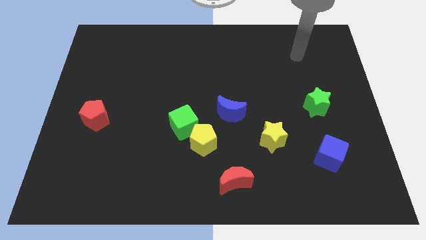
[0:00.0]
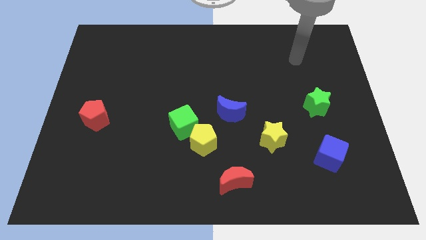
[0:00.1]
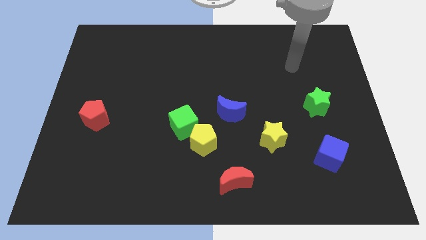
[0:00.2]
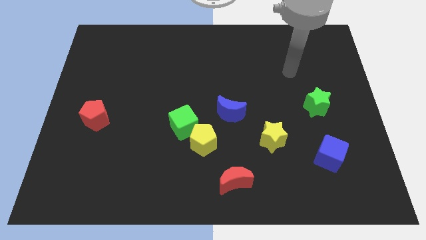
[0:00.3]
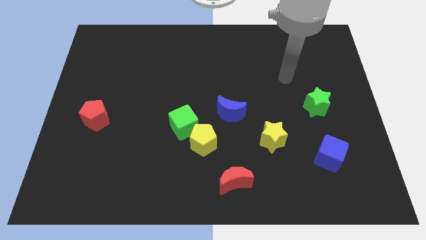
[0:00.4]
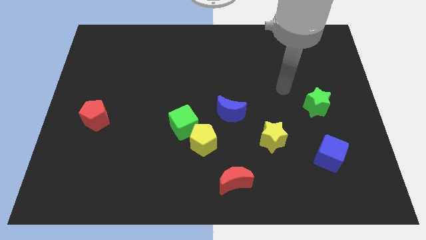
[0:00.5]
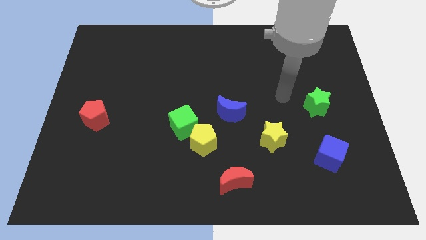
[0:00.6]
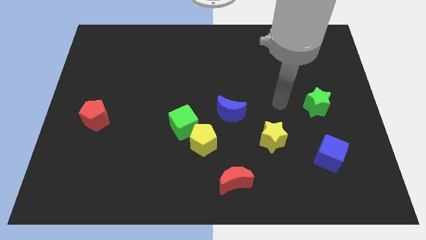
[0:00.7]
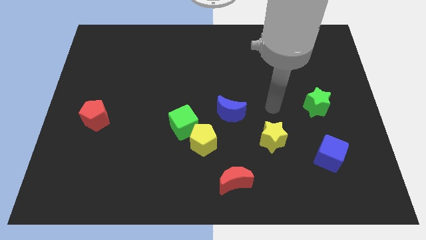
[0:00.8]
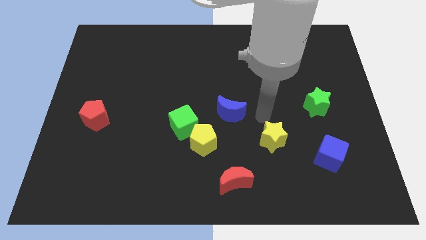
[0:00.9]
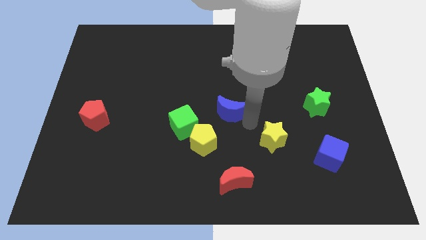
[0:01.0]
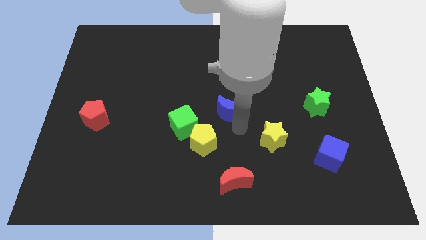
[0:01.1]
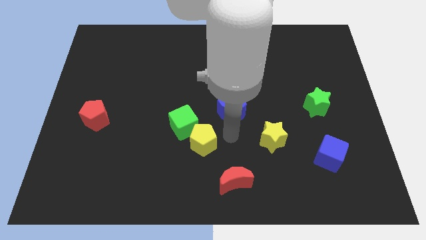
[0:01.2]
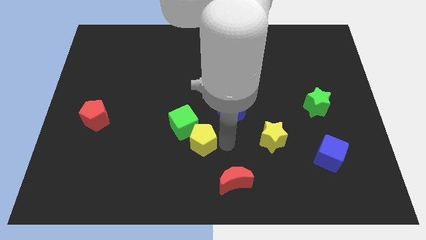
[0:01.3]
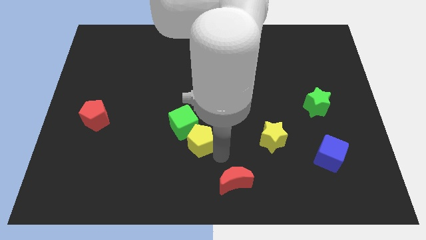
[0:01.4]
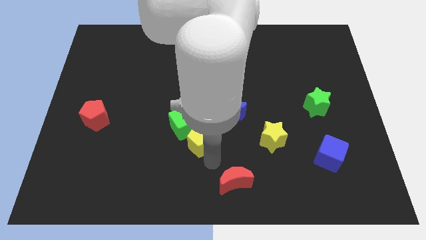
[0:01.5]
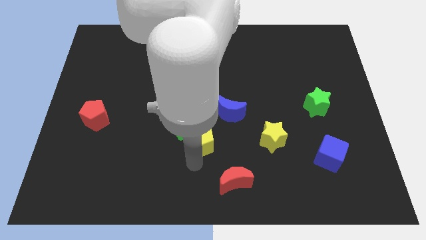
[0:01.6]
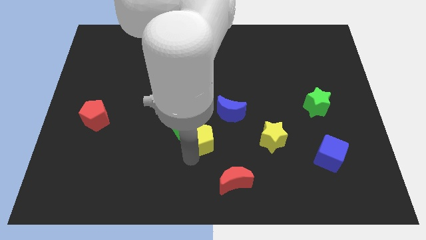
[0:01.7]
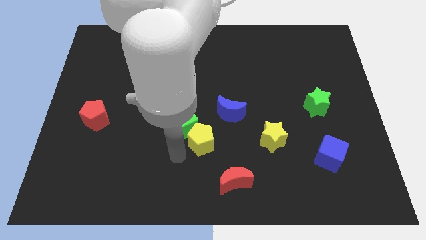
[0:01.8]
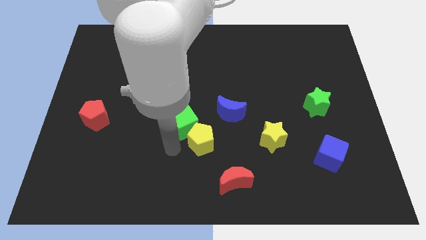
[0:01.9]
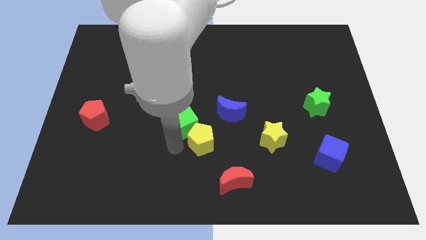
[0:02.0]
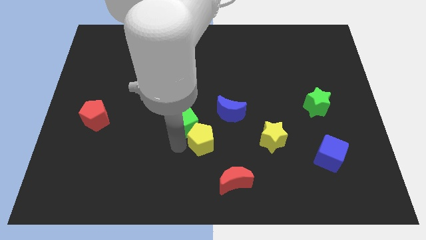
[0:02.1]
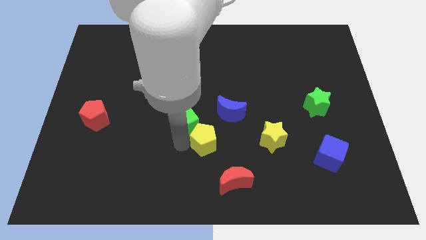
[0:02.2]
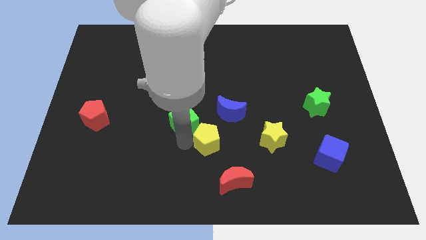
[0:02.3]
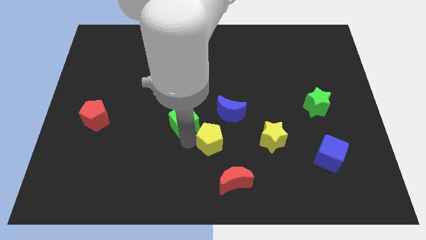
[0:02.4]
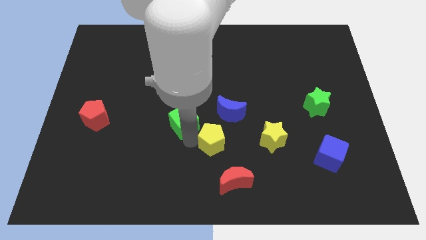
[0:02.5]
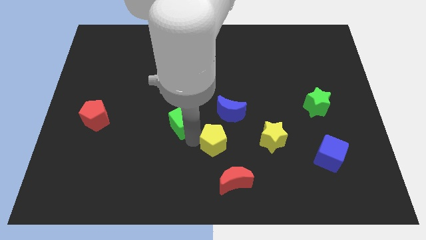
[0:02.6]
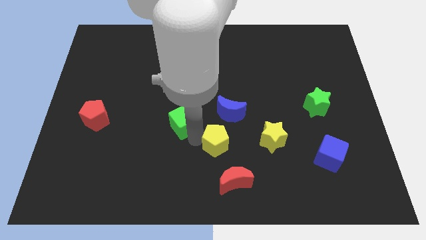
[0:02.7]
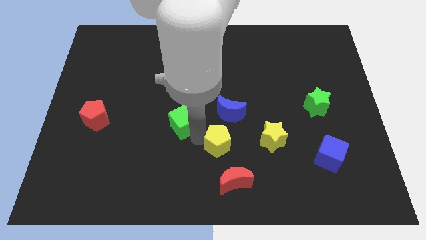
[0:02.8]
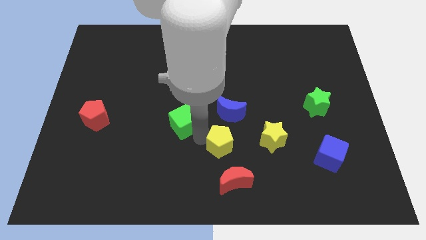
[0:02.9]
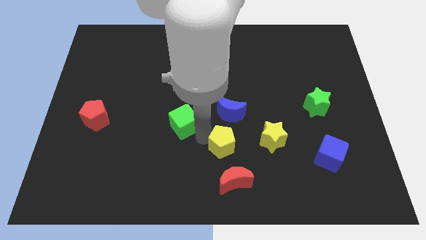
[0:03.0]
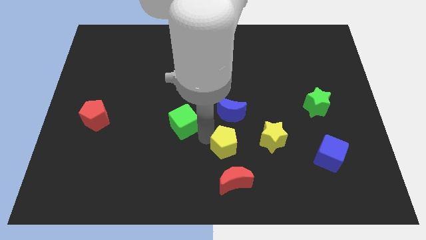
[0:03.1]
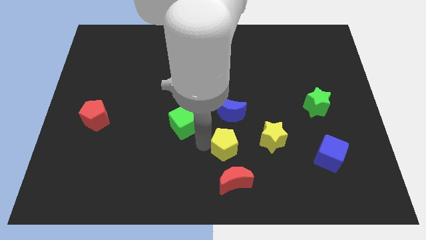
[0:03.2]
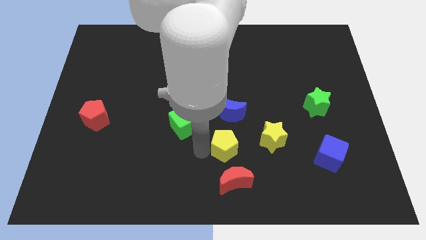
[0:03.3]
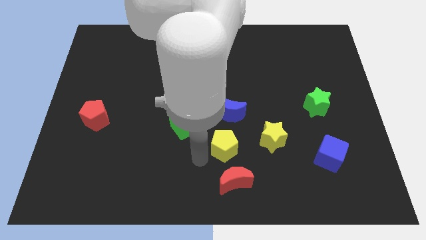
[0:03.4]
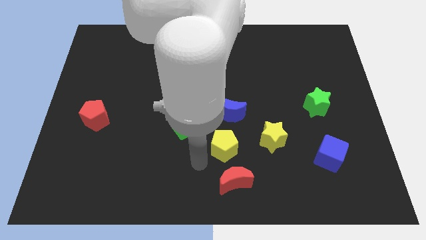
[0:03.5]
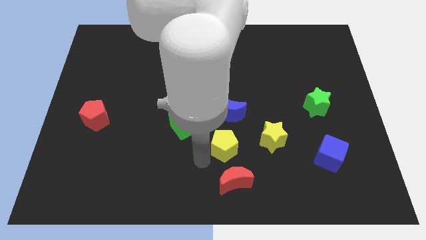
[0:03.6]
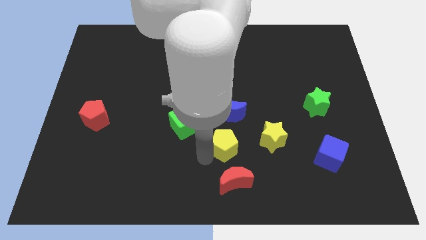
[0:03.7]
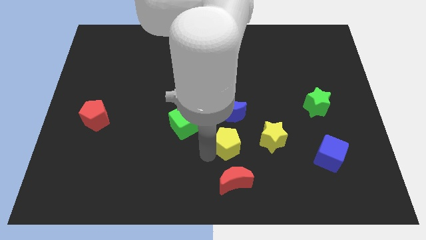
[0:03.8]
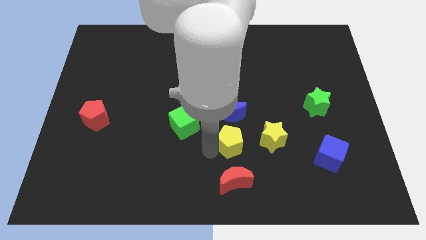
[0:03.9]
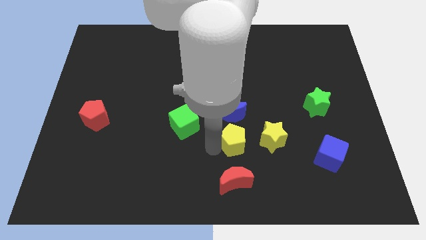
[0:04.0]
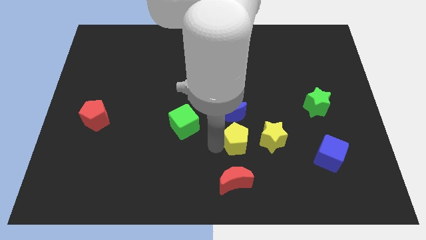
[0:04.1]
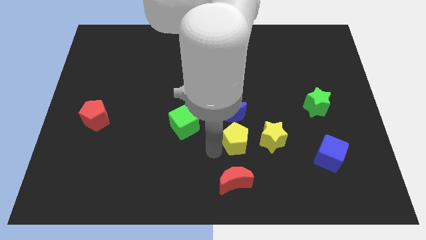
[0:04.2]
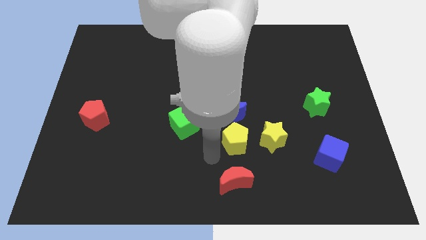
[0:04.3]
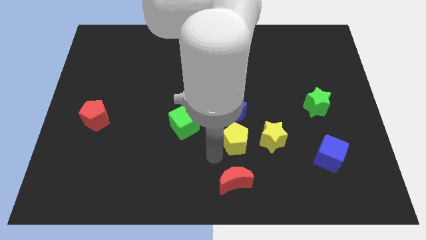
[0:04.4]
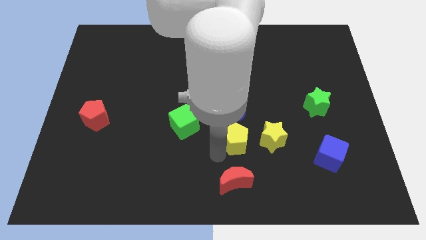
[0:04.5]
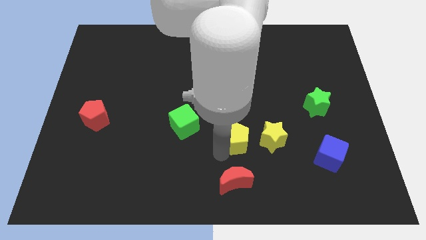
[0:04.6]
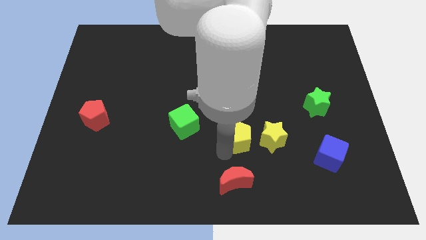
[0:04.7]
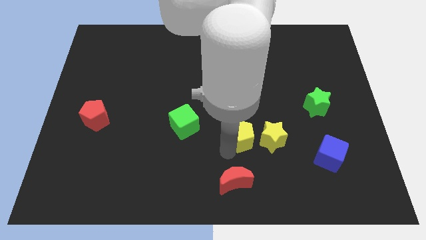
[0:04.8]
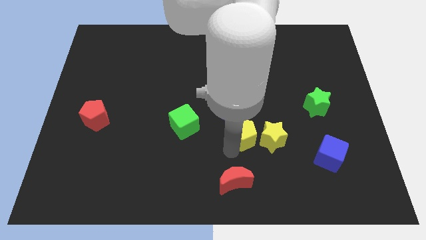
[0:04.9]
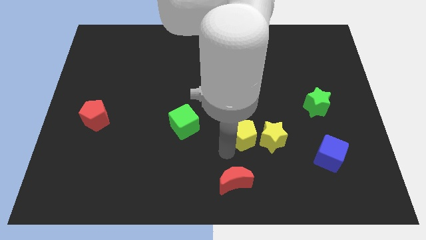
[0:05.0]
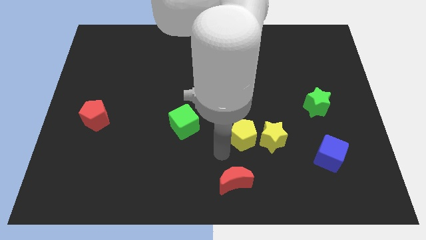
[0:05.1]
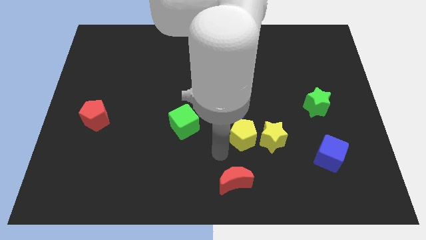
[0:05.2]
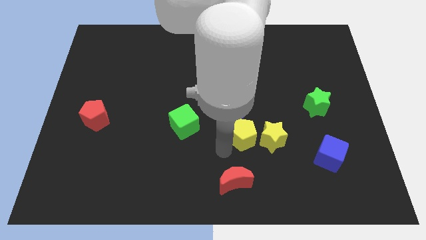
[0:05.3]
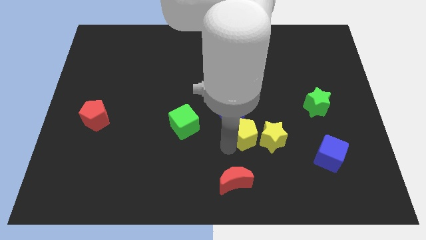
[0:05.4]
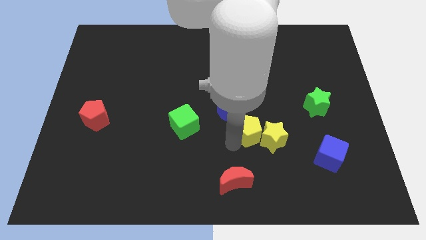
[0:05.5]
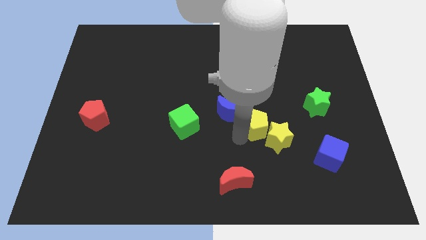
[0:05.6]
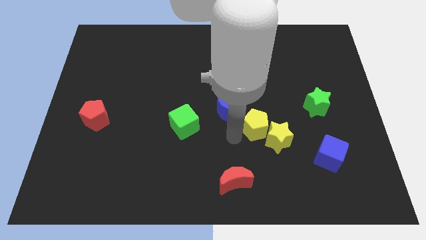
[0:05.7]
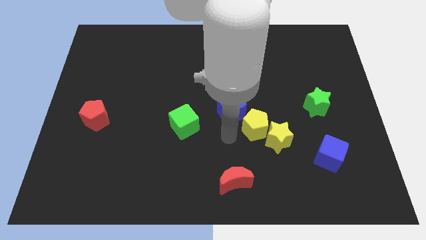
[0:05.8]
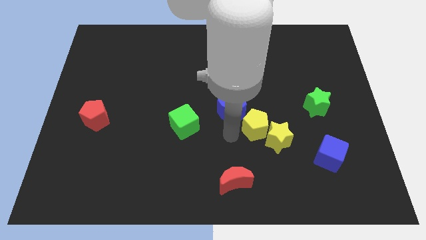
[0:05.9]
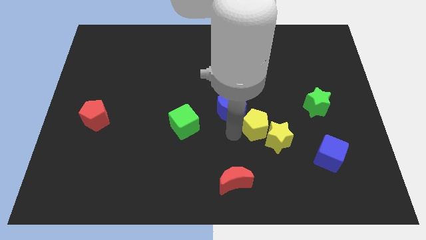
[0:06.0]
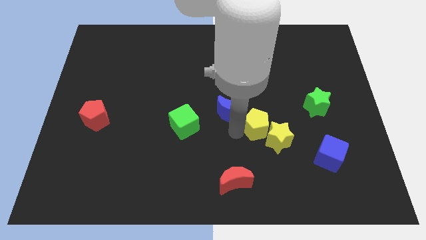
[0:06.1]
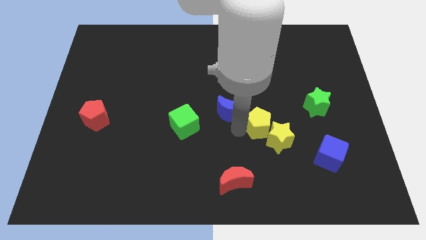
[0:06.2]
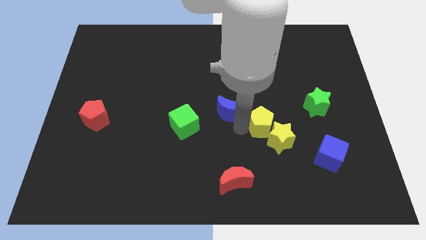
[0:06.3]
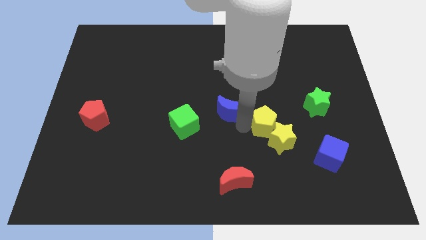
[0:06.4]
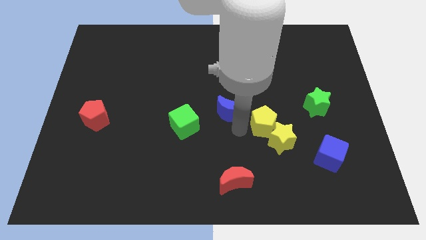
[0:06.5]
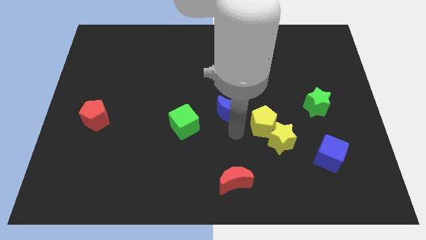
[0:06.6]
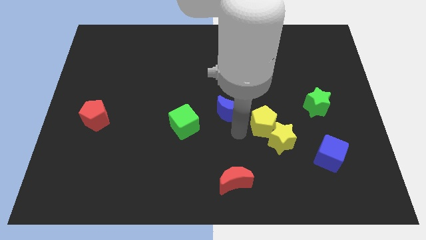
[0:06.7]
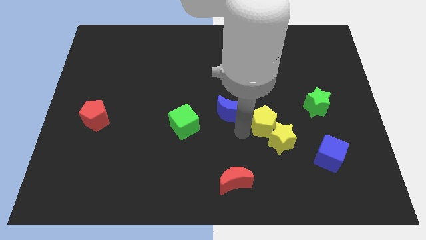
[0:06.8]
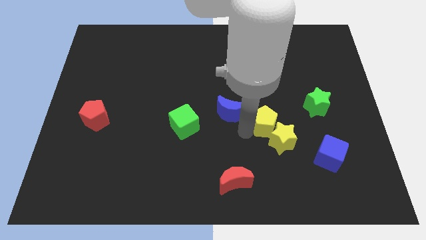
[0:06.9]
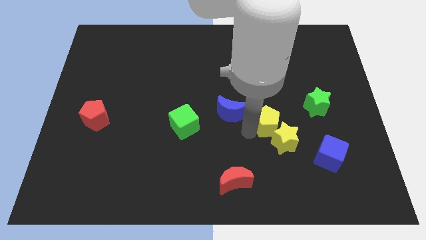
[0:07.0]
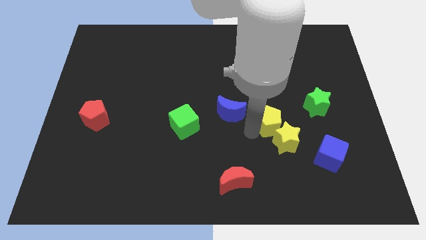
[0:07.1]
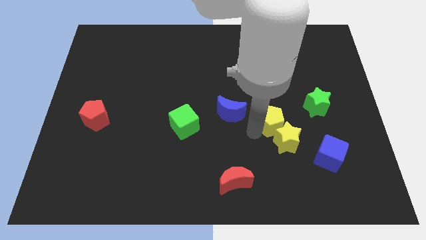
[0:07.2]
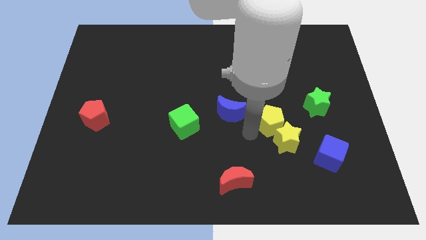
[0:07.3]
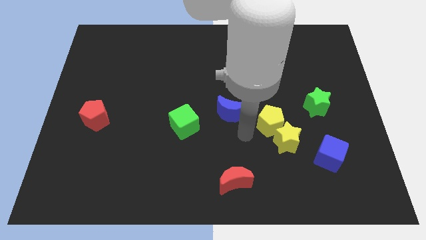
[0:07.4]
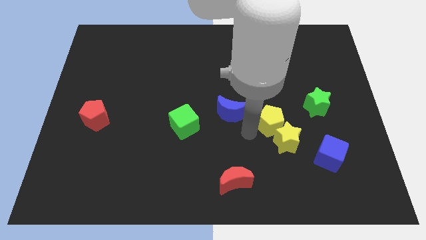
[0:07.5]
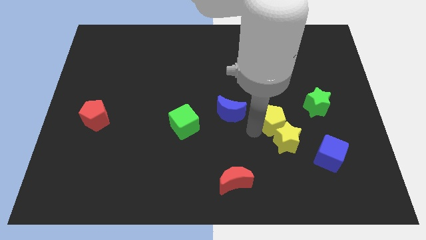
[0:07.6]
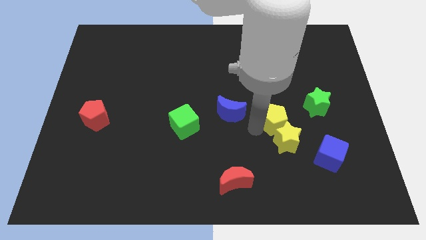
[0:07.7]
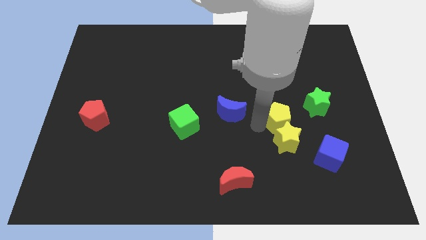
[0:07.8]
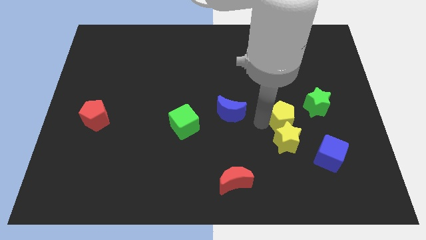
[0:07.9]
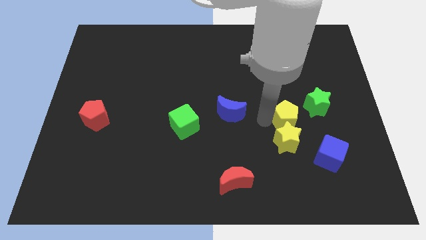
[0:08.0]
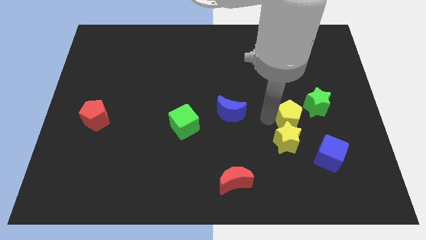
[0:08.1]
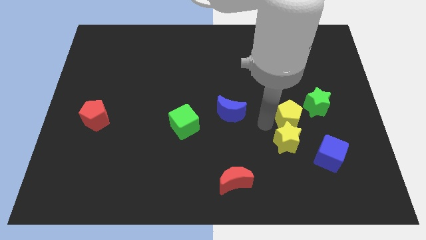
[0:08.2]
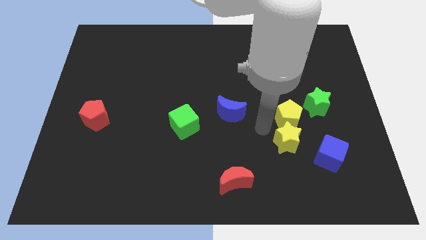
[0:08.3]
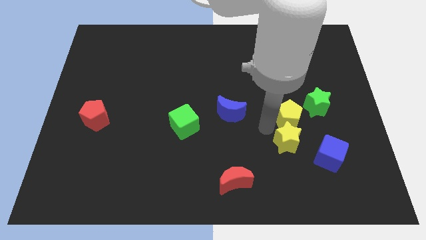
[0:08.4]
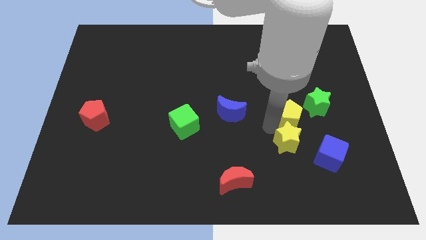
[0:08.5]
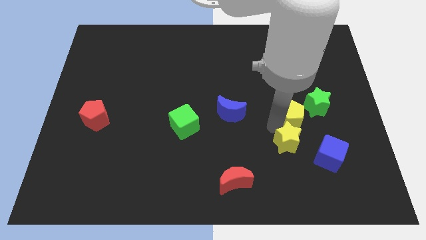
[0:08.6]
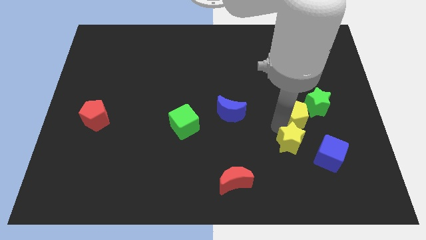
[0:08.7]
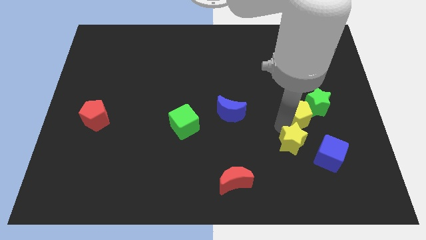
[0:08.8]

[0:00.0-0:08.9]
slide the yellow pentagon close to the green star
